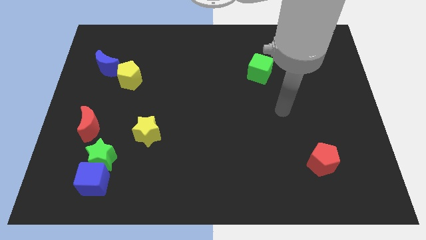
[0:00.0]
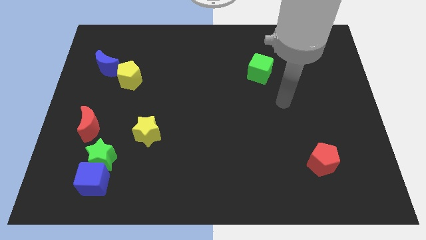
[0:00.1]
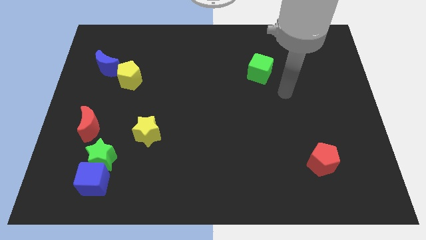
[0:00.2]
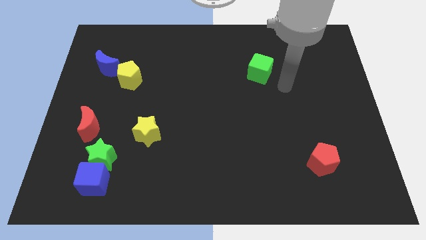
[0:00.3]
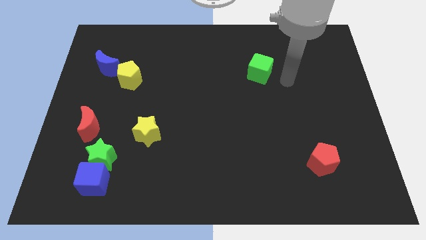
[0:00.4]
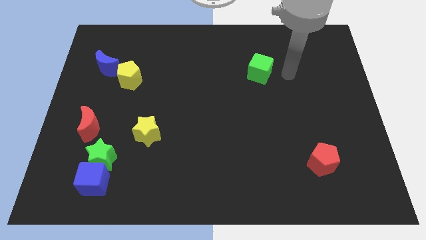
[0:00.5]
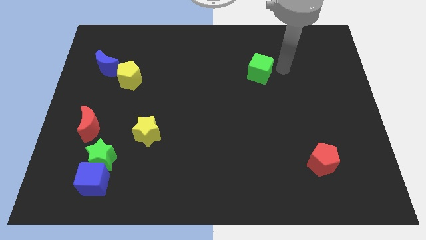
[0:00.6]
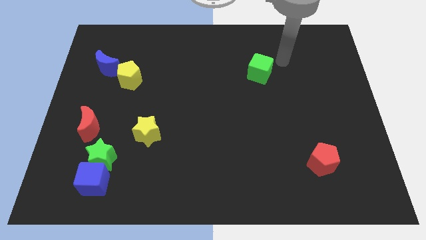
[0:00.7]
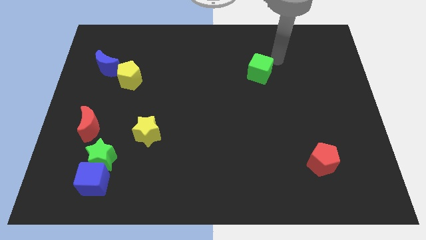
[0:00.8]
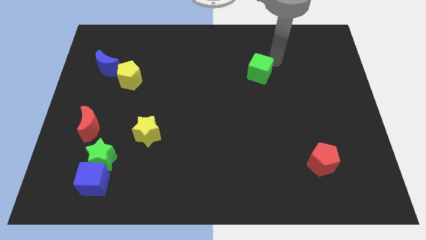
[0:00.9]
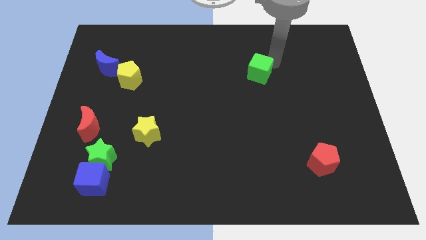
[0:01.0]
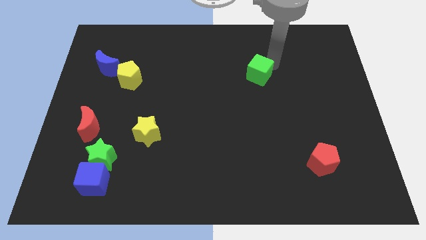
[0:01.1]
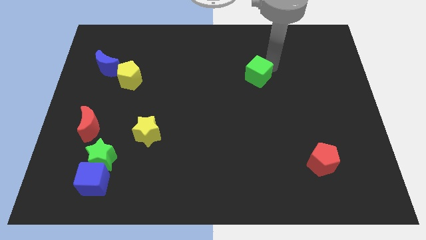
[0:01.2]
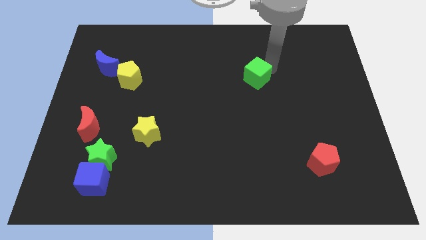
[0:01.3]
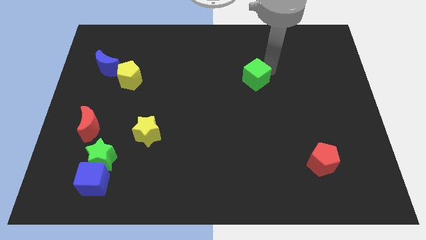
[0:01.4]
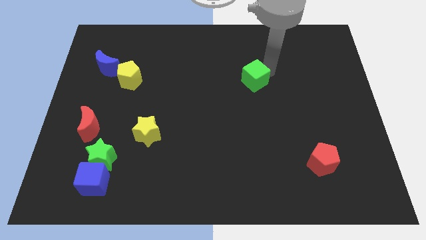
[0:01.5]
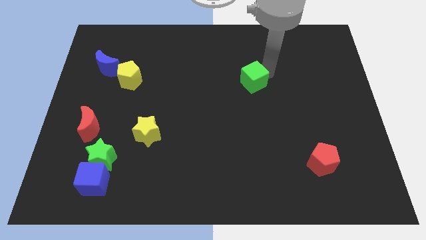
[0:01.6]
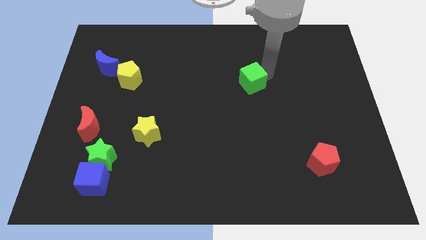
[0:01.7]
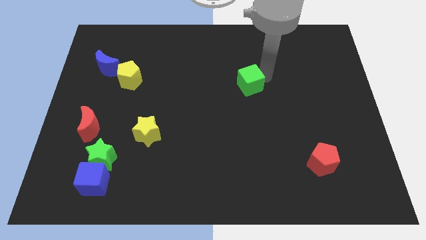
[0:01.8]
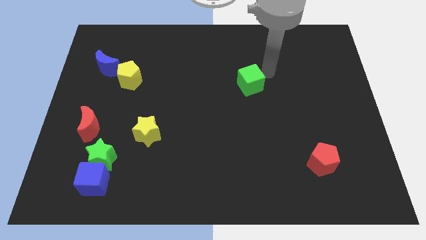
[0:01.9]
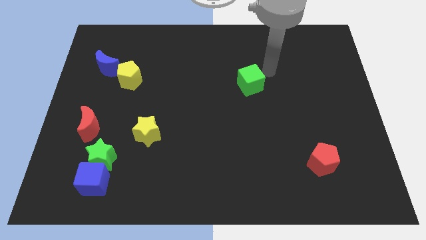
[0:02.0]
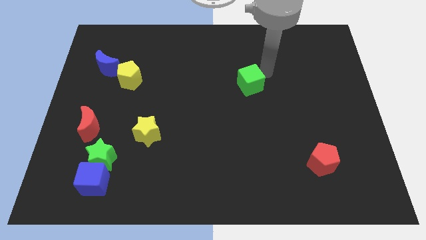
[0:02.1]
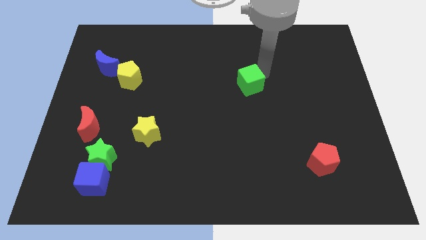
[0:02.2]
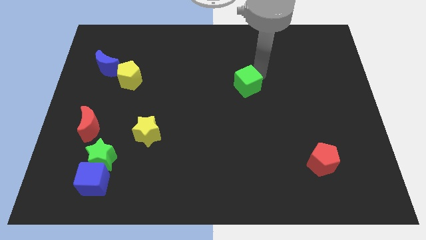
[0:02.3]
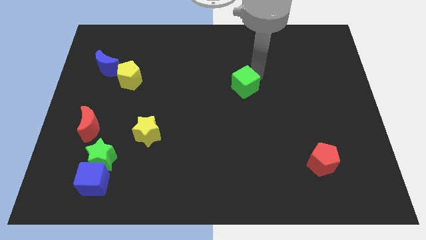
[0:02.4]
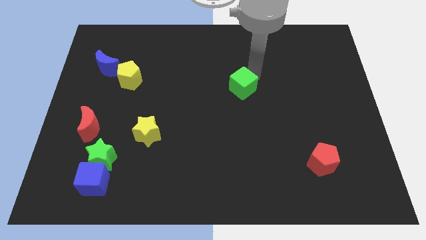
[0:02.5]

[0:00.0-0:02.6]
push the green cube down and then to the left slightly

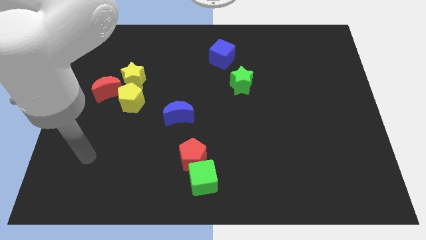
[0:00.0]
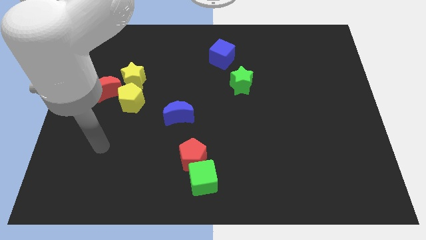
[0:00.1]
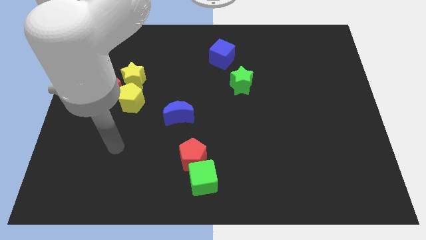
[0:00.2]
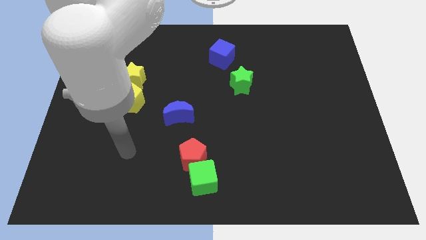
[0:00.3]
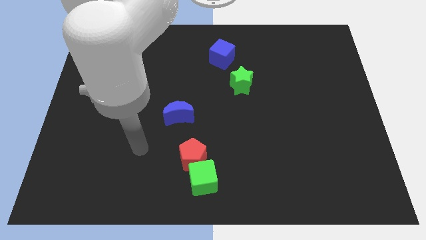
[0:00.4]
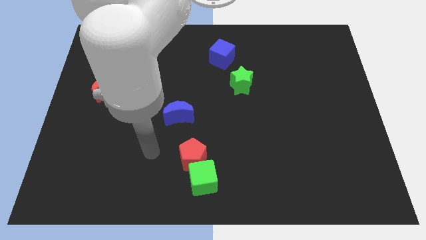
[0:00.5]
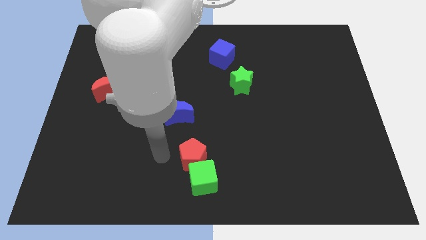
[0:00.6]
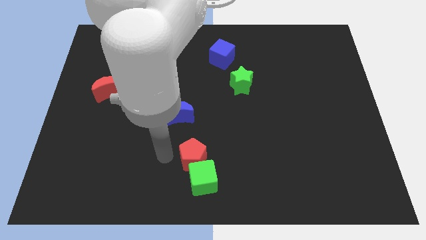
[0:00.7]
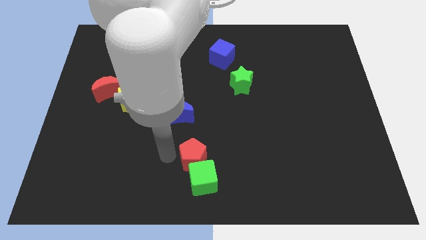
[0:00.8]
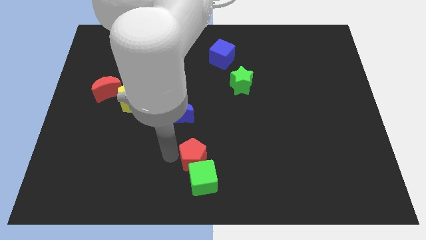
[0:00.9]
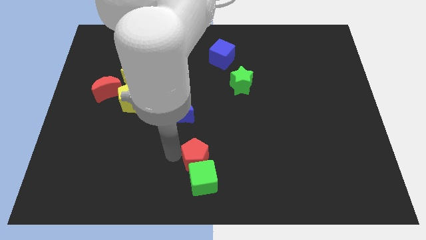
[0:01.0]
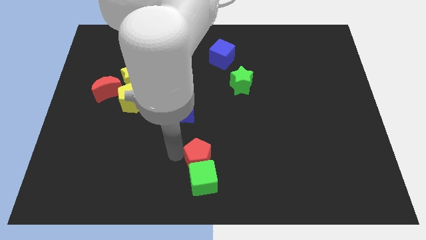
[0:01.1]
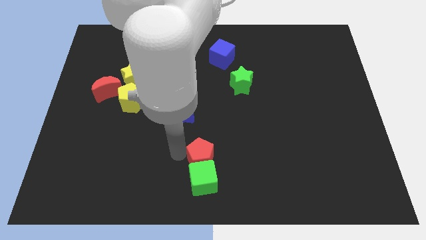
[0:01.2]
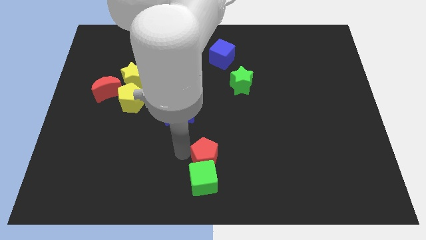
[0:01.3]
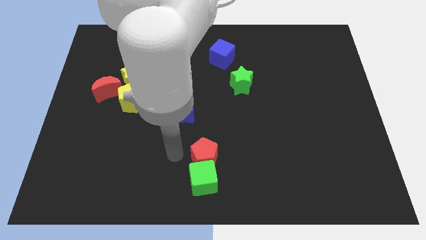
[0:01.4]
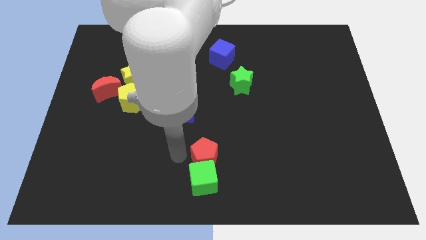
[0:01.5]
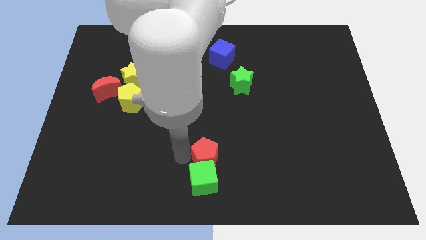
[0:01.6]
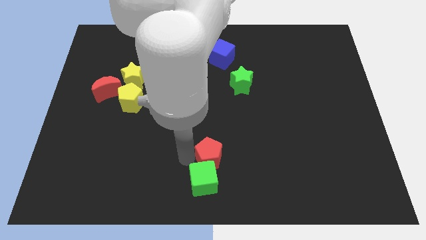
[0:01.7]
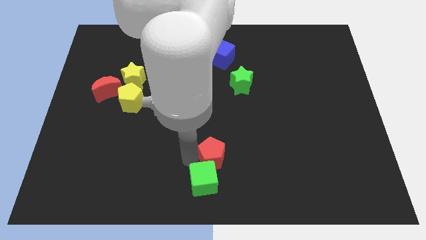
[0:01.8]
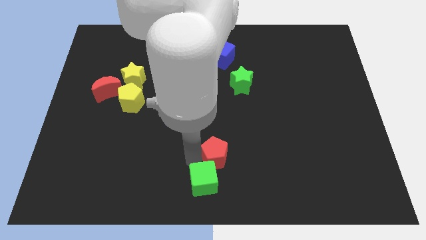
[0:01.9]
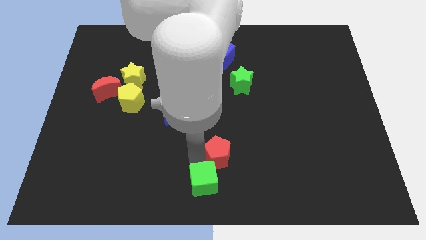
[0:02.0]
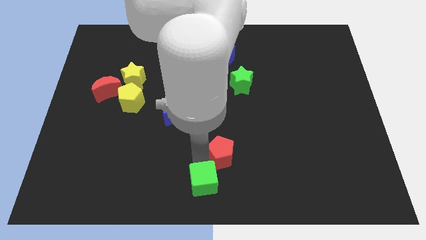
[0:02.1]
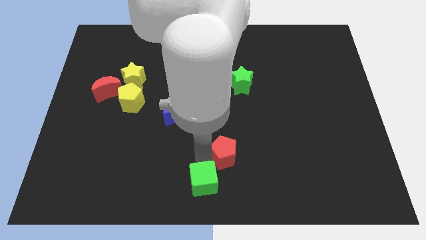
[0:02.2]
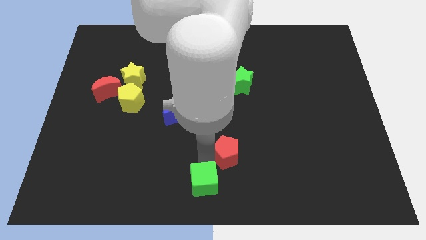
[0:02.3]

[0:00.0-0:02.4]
slightly slide the red pentagon to the right

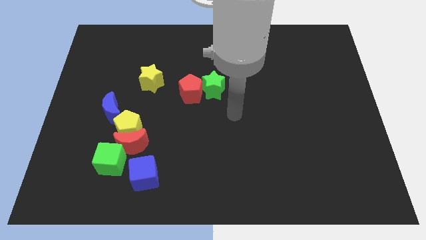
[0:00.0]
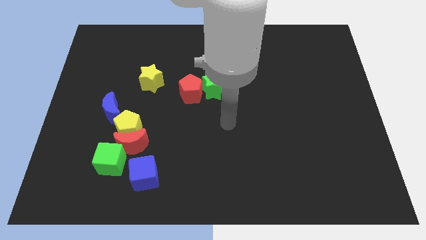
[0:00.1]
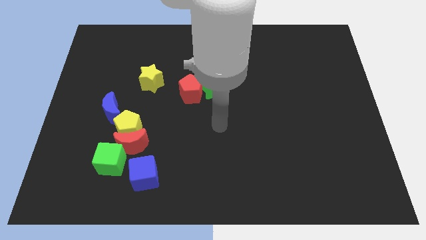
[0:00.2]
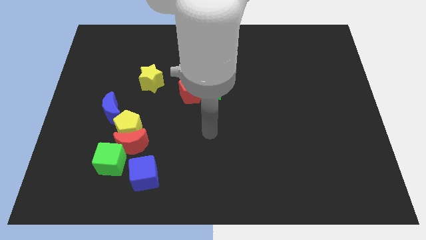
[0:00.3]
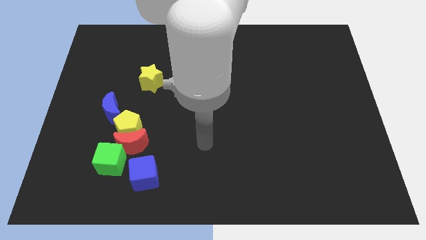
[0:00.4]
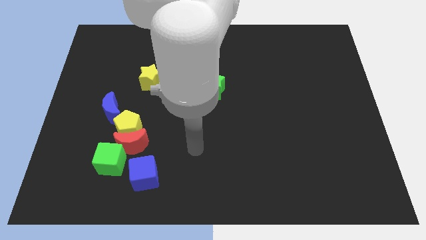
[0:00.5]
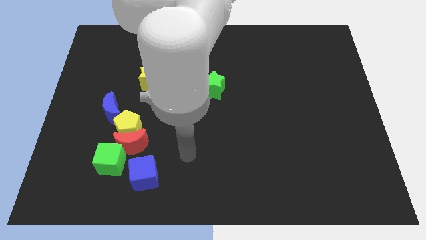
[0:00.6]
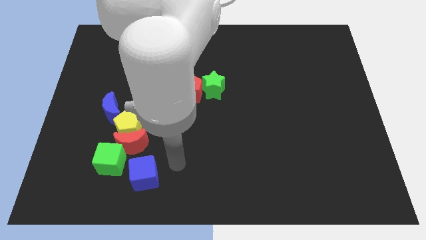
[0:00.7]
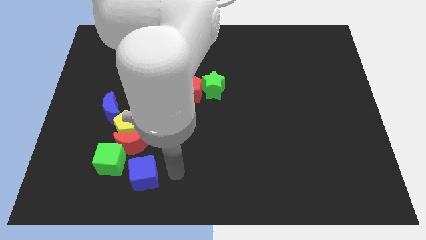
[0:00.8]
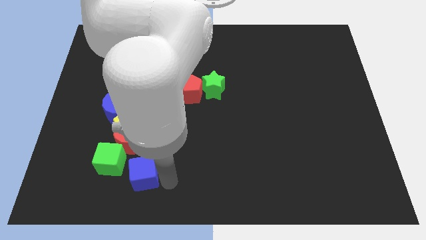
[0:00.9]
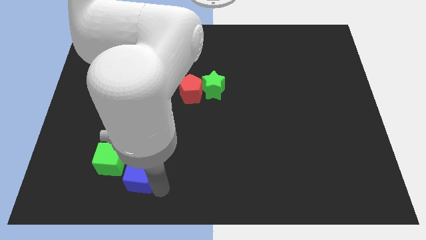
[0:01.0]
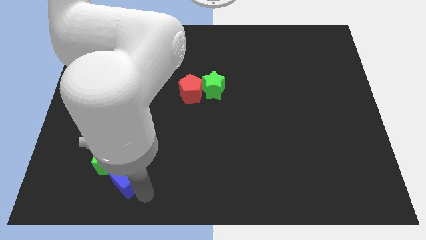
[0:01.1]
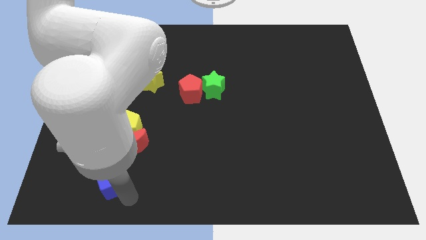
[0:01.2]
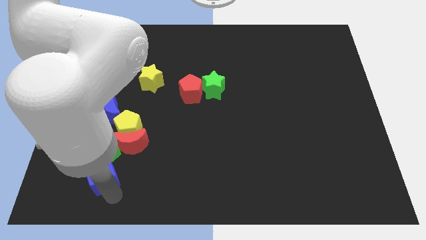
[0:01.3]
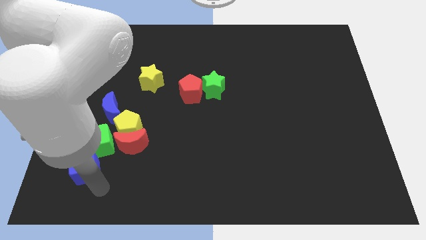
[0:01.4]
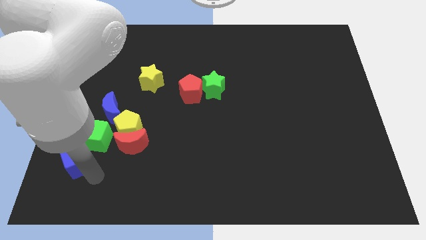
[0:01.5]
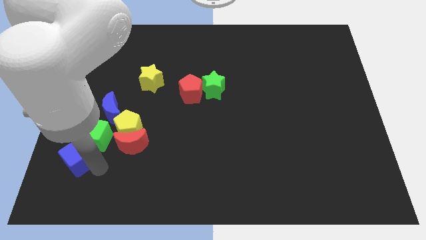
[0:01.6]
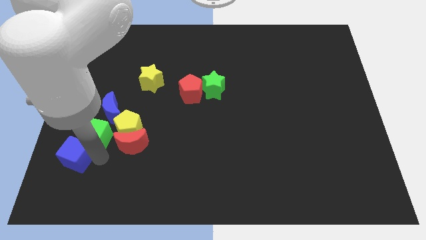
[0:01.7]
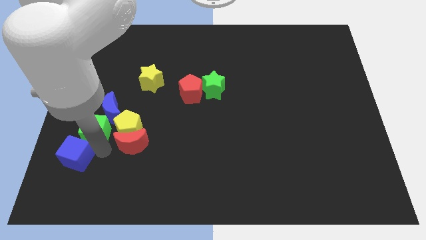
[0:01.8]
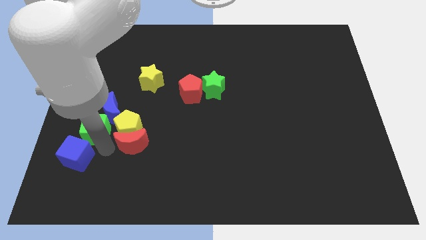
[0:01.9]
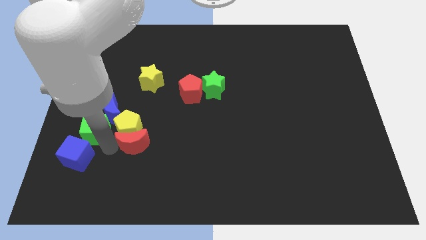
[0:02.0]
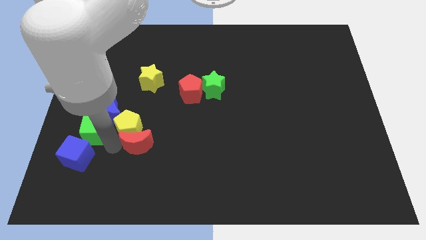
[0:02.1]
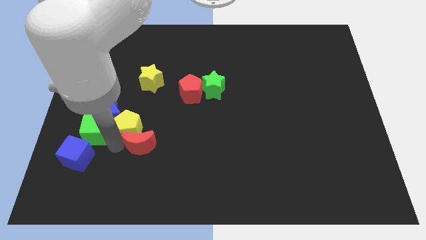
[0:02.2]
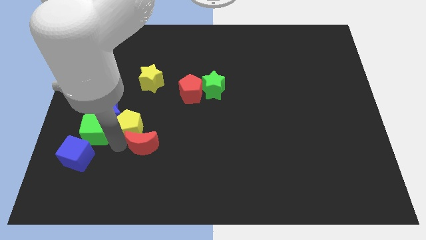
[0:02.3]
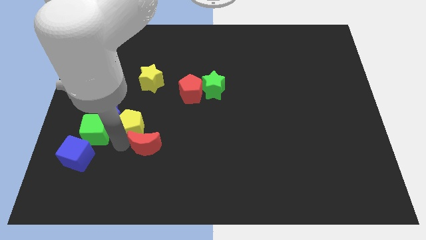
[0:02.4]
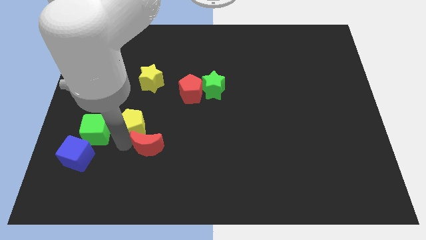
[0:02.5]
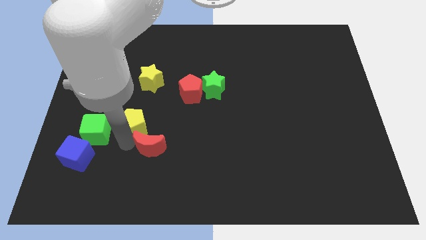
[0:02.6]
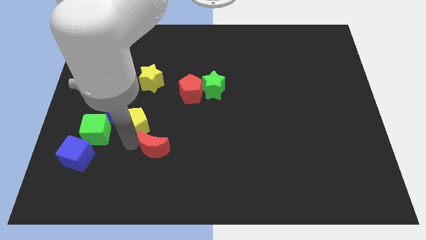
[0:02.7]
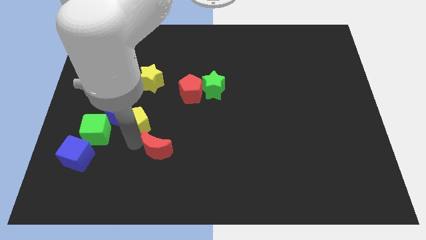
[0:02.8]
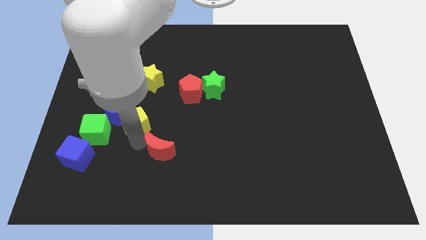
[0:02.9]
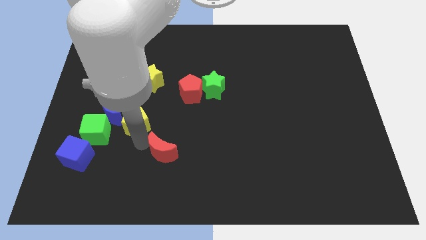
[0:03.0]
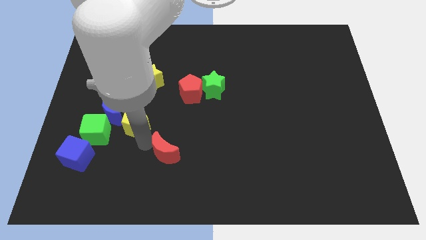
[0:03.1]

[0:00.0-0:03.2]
slightly slide the red moon right
